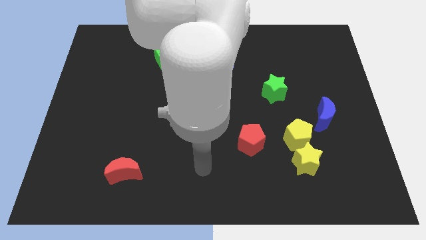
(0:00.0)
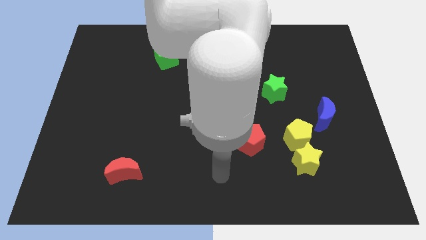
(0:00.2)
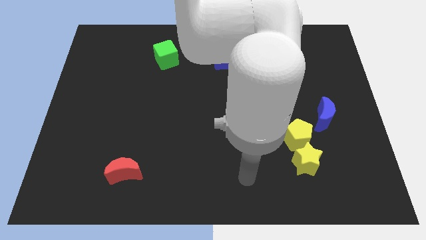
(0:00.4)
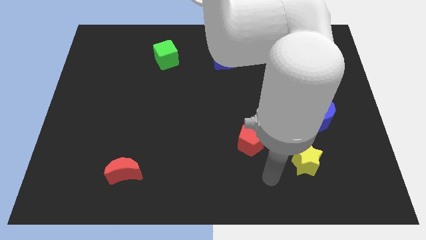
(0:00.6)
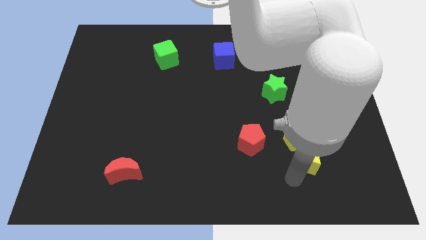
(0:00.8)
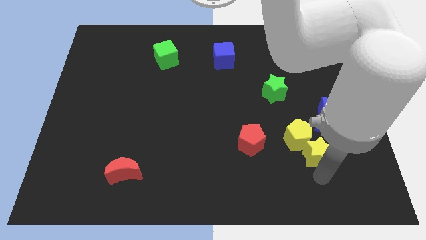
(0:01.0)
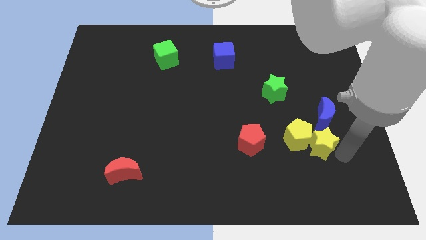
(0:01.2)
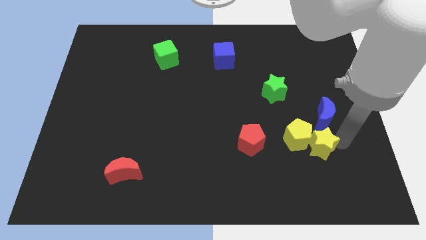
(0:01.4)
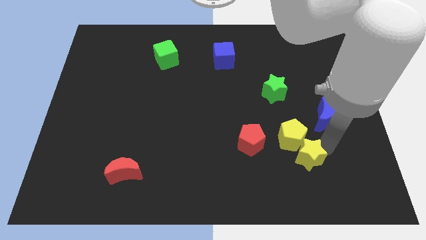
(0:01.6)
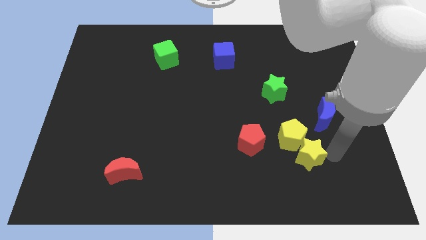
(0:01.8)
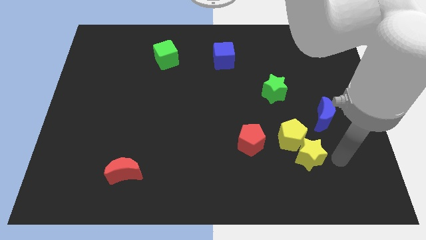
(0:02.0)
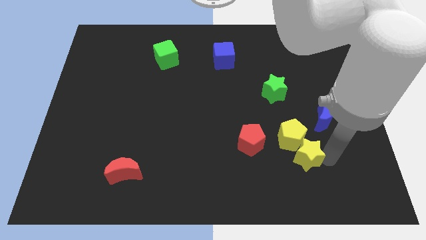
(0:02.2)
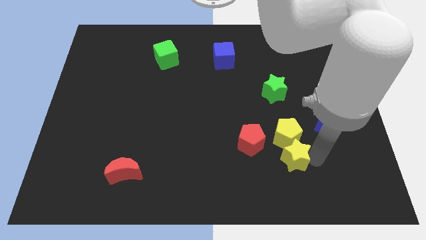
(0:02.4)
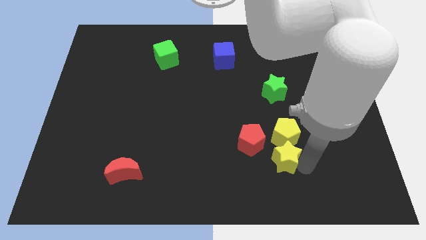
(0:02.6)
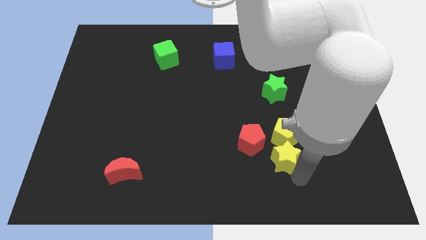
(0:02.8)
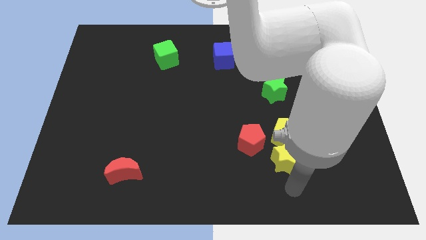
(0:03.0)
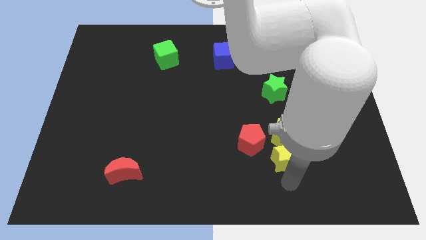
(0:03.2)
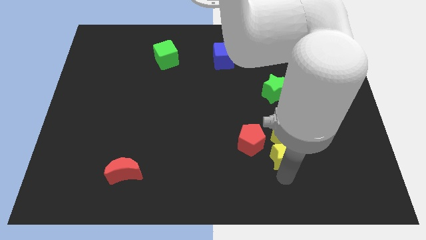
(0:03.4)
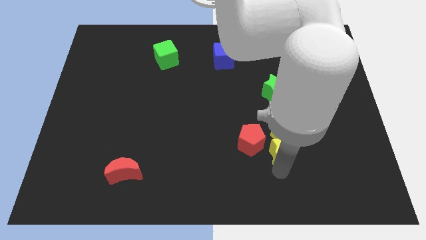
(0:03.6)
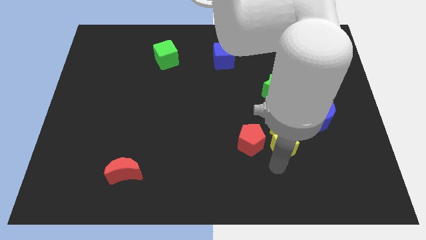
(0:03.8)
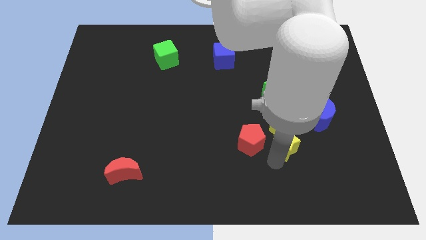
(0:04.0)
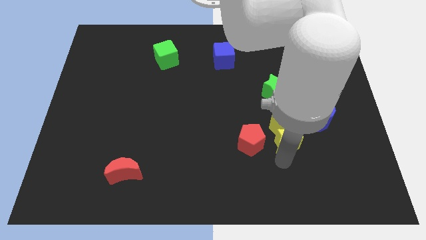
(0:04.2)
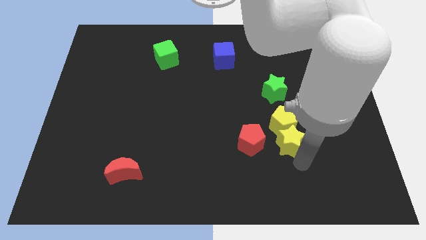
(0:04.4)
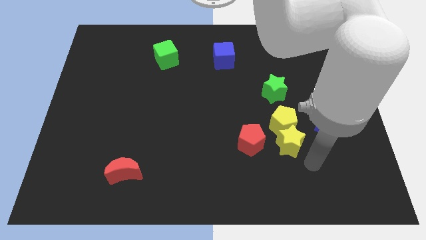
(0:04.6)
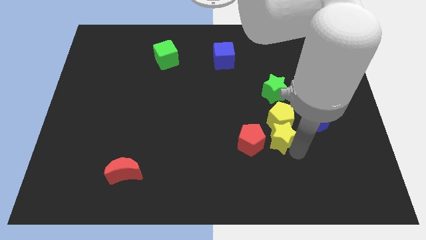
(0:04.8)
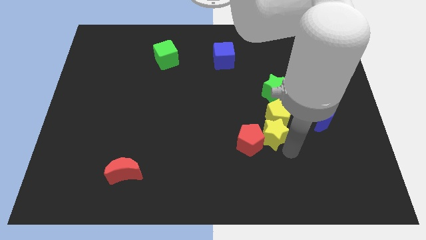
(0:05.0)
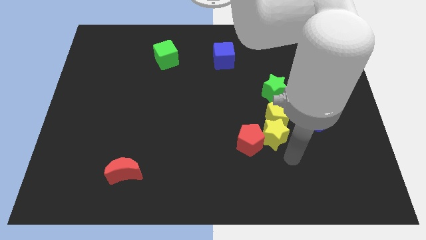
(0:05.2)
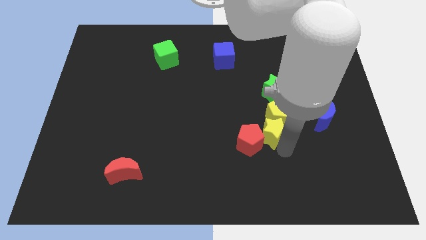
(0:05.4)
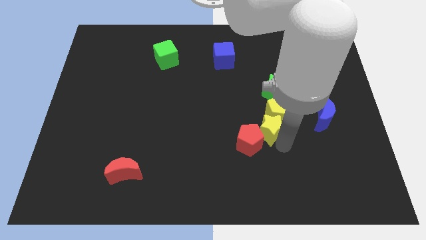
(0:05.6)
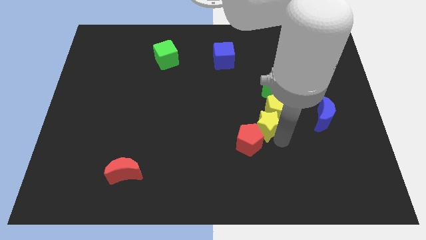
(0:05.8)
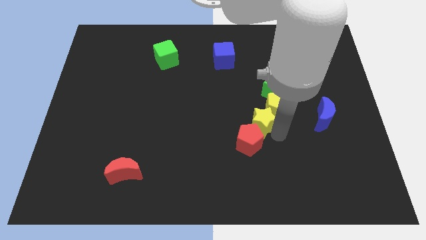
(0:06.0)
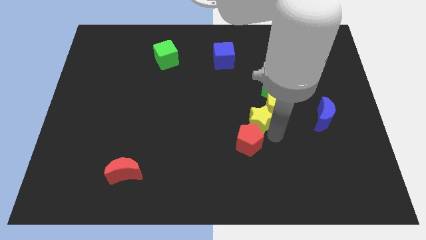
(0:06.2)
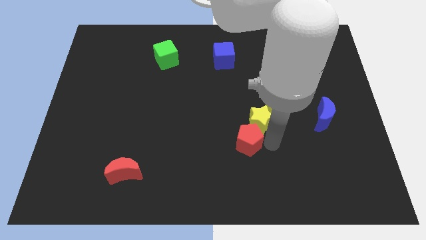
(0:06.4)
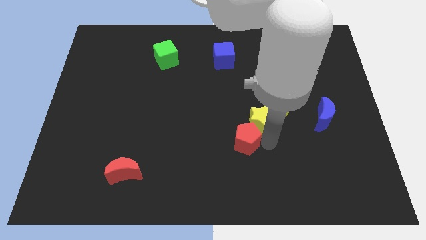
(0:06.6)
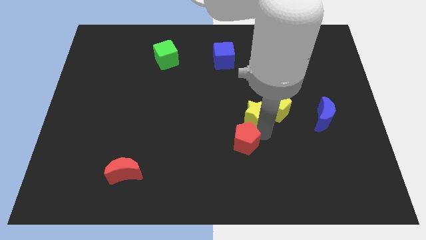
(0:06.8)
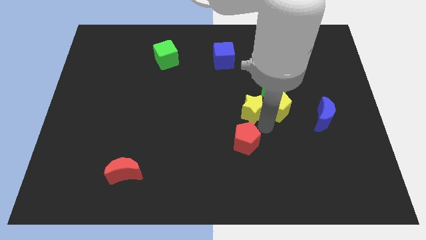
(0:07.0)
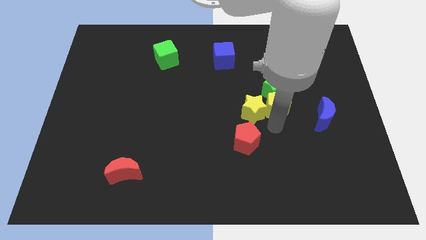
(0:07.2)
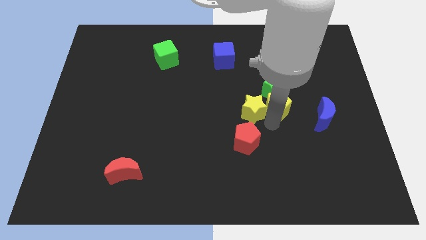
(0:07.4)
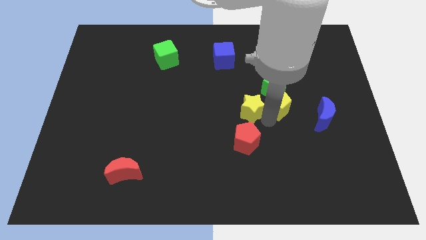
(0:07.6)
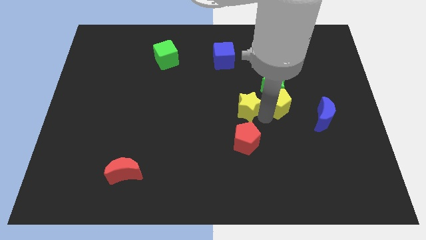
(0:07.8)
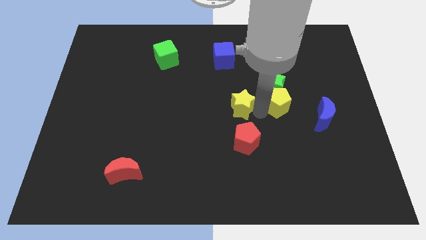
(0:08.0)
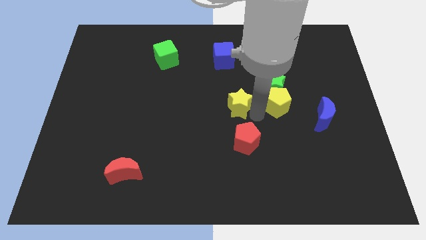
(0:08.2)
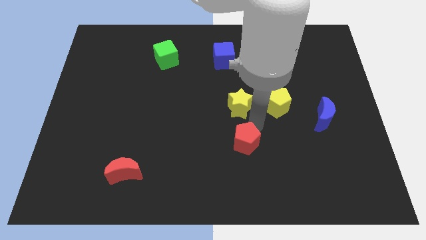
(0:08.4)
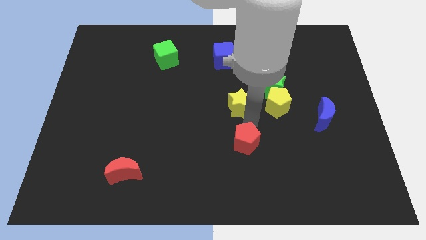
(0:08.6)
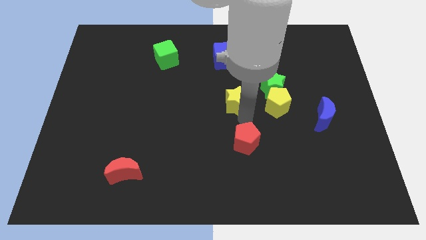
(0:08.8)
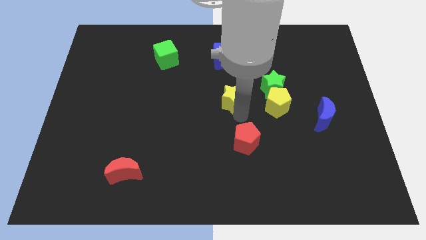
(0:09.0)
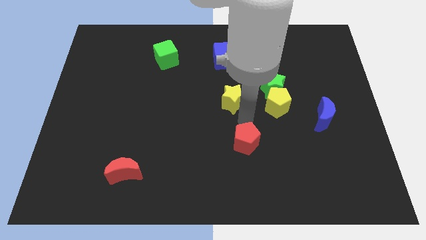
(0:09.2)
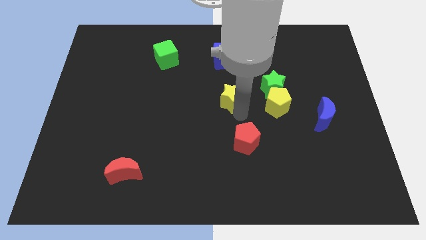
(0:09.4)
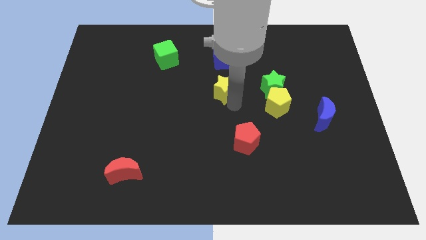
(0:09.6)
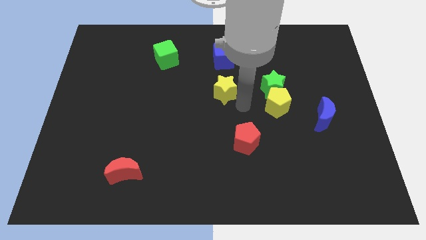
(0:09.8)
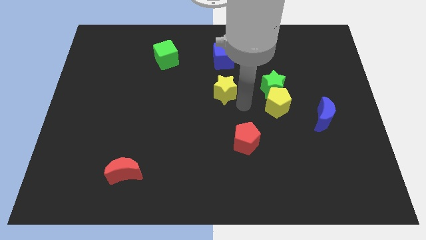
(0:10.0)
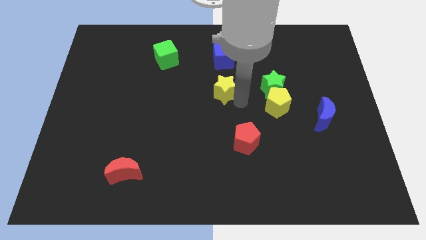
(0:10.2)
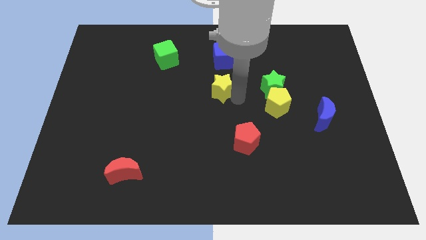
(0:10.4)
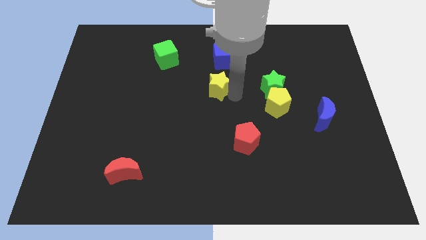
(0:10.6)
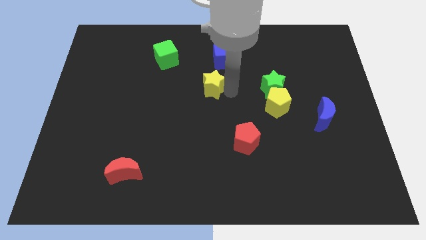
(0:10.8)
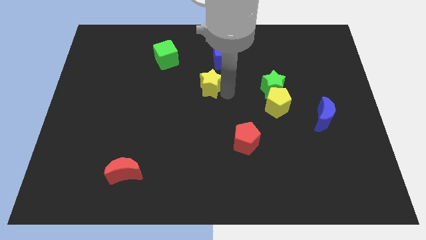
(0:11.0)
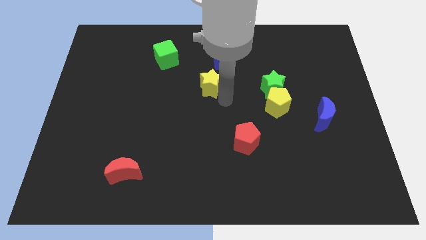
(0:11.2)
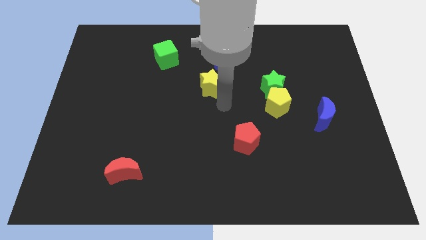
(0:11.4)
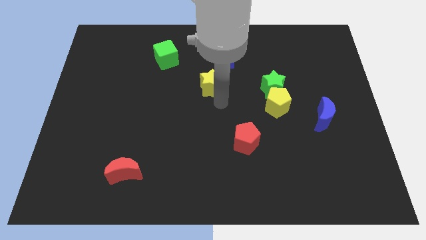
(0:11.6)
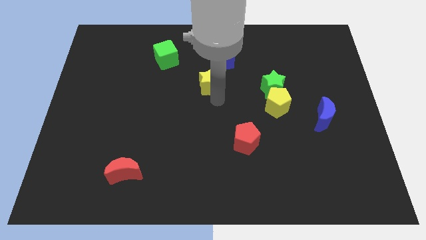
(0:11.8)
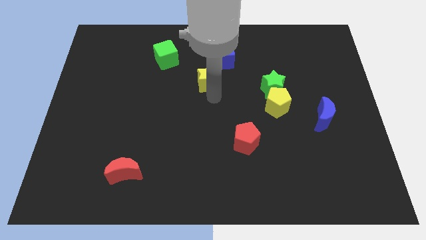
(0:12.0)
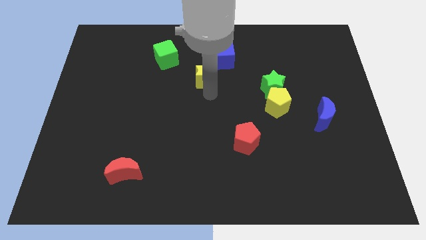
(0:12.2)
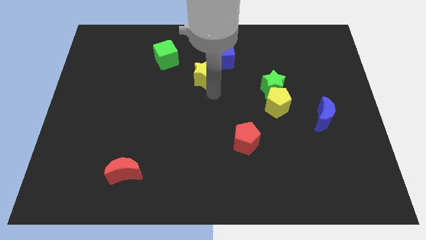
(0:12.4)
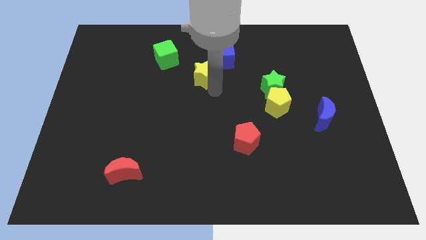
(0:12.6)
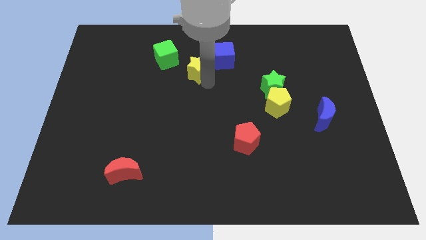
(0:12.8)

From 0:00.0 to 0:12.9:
push the yellow star just left of the blue cube

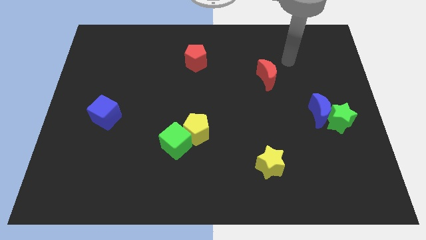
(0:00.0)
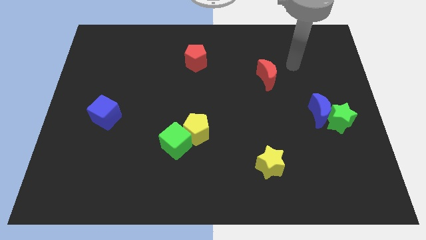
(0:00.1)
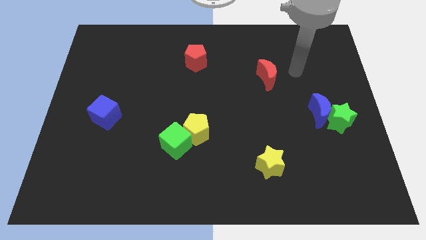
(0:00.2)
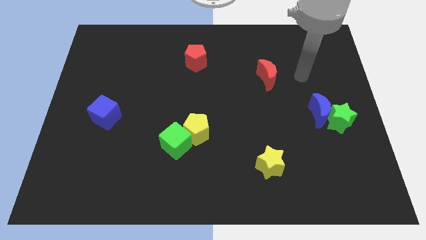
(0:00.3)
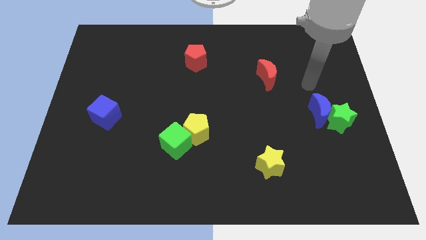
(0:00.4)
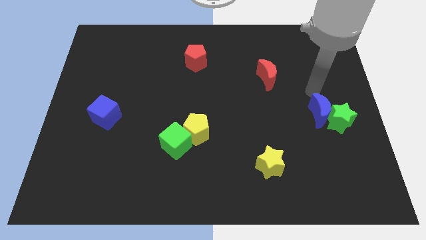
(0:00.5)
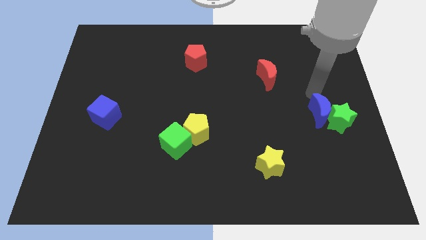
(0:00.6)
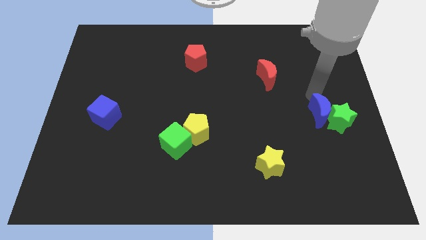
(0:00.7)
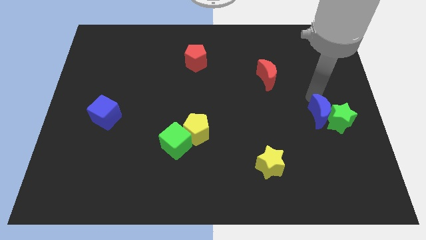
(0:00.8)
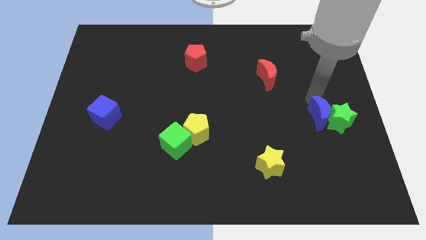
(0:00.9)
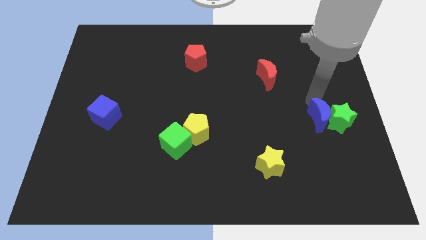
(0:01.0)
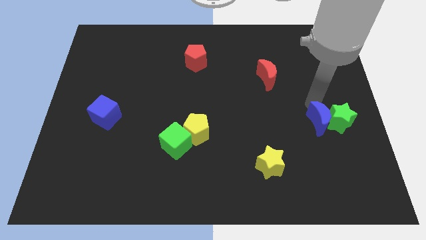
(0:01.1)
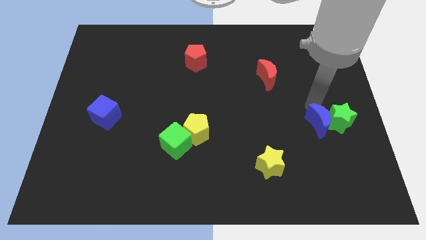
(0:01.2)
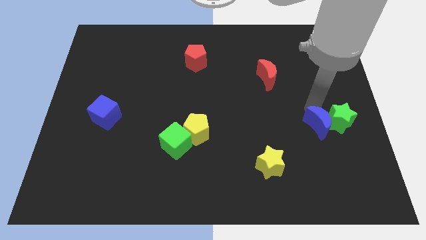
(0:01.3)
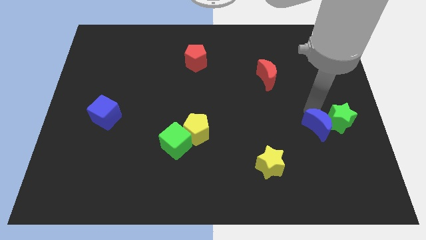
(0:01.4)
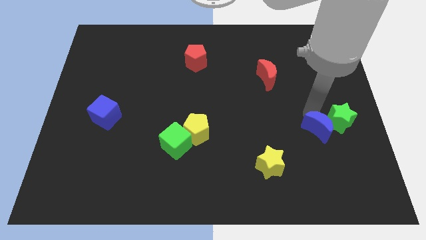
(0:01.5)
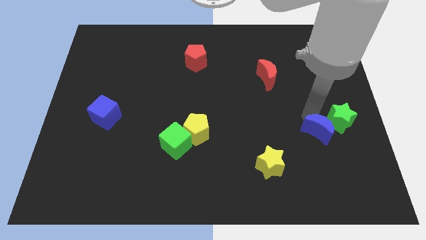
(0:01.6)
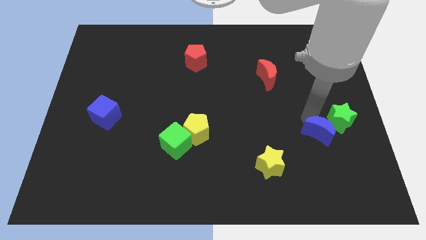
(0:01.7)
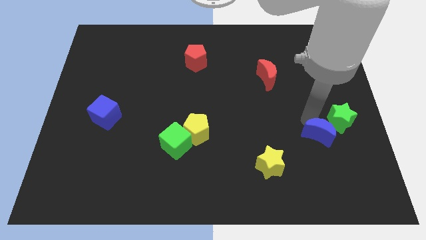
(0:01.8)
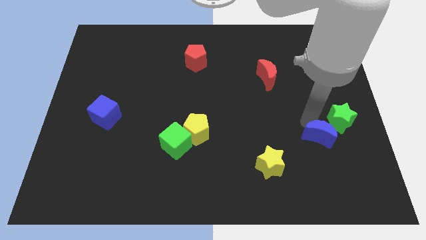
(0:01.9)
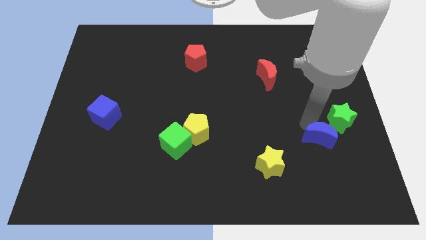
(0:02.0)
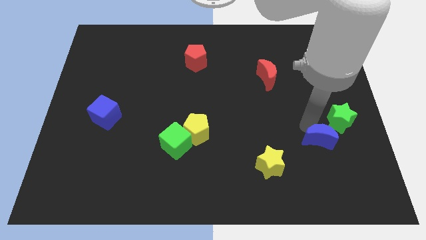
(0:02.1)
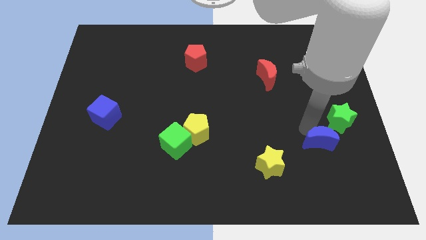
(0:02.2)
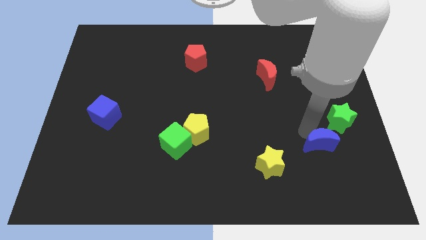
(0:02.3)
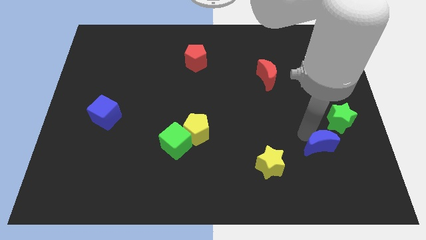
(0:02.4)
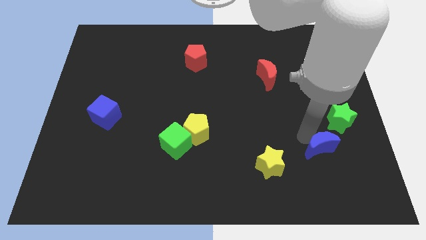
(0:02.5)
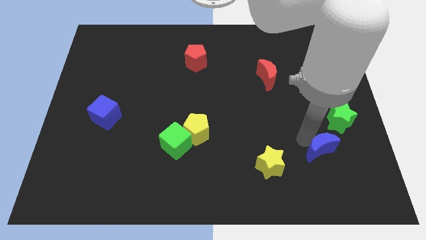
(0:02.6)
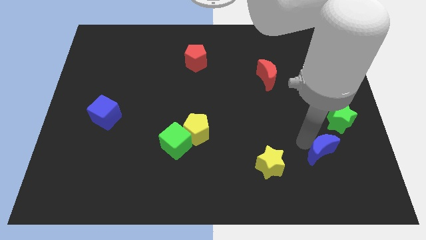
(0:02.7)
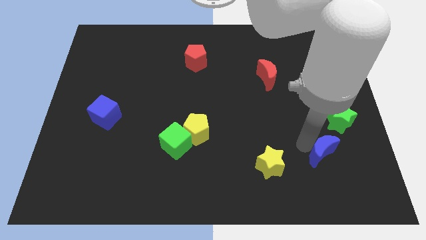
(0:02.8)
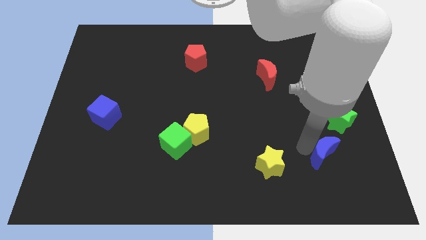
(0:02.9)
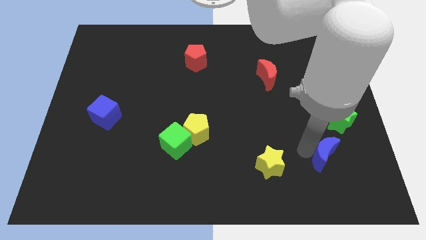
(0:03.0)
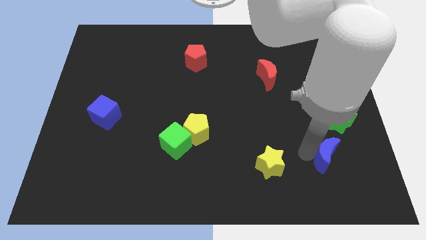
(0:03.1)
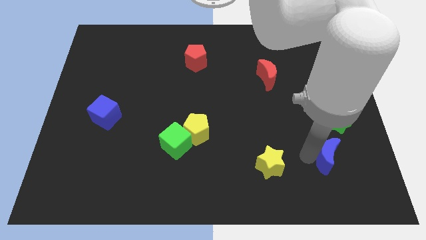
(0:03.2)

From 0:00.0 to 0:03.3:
push the blue moon to the bottom of the green star
